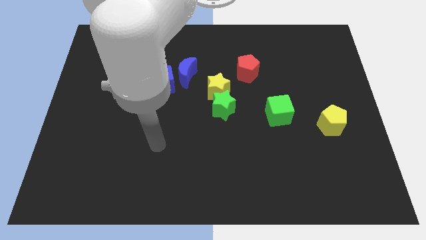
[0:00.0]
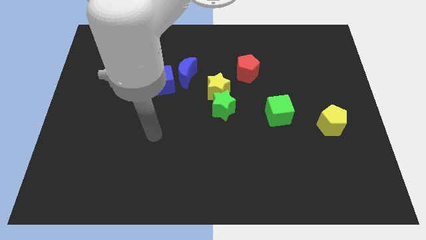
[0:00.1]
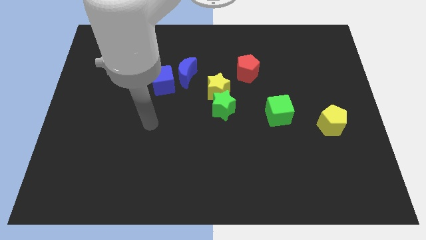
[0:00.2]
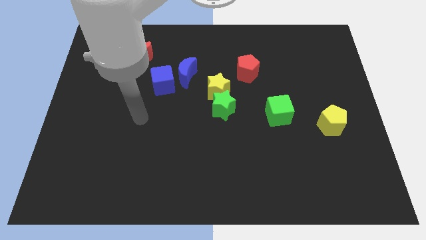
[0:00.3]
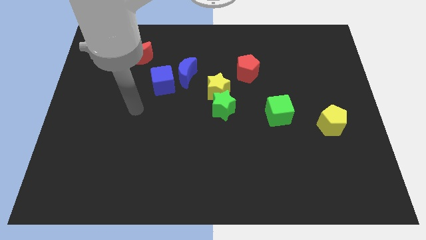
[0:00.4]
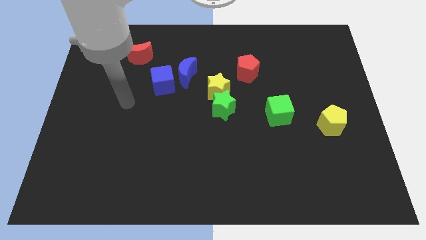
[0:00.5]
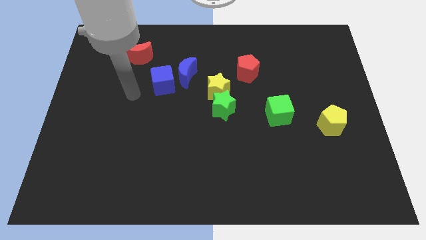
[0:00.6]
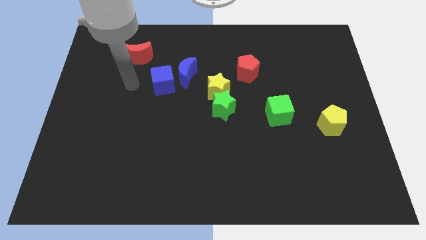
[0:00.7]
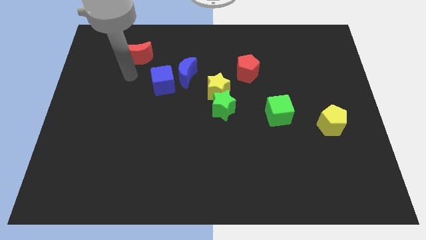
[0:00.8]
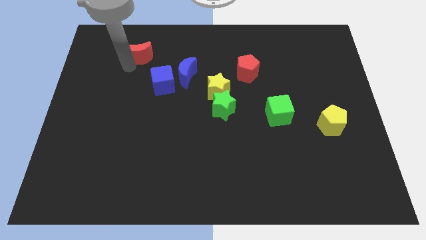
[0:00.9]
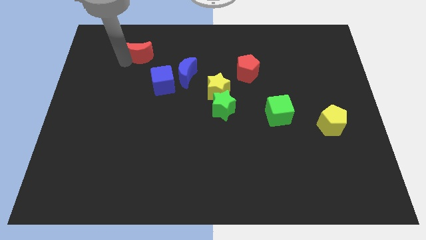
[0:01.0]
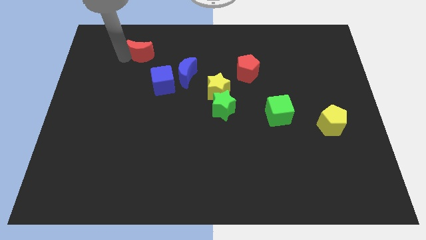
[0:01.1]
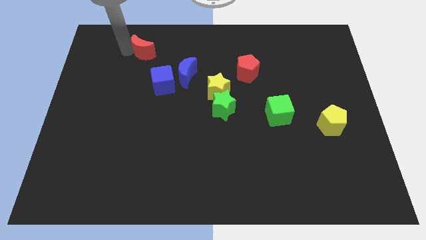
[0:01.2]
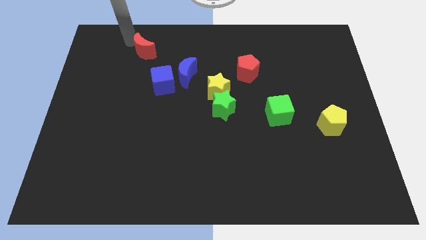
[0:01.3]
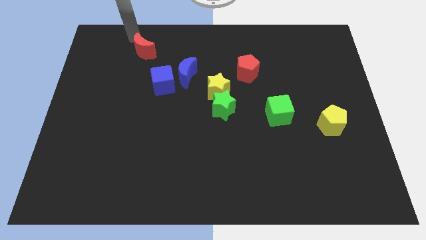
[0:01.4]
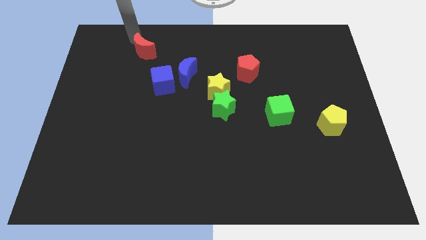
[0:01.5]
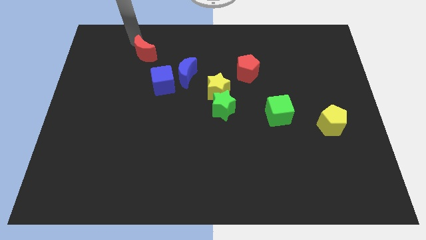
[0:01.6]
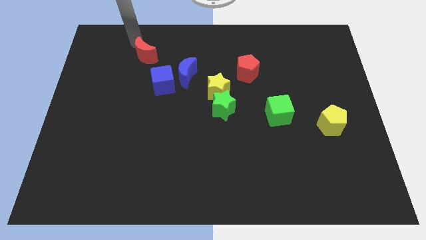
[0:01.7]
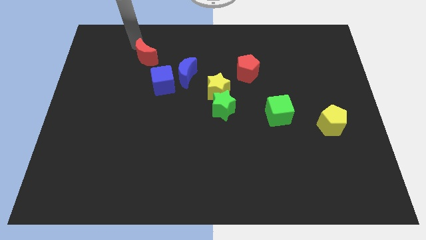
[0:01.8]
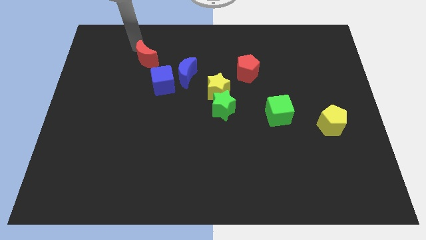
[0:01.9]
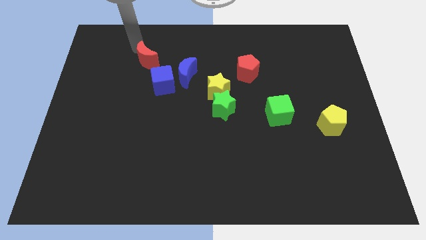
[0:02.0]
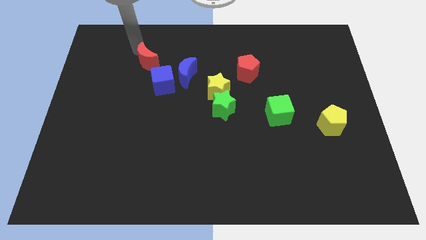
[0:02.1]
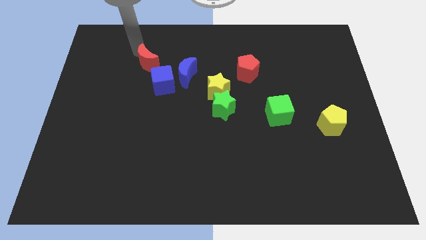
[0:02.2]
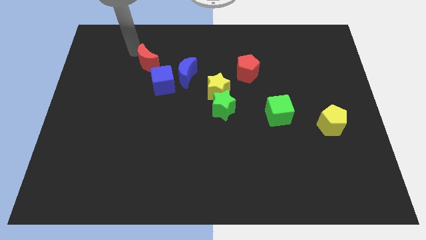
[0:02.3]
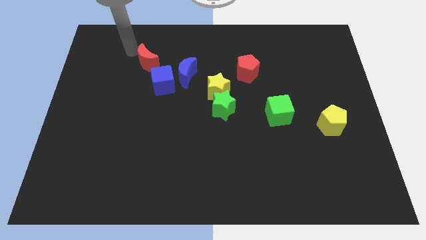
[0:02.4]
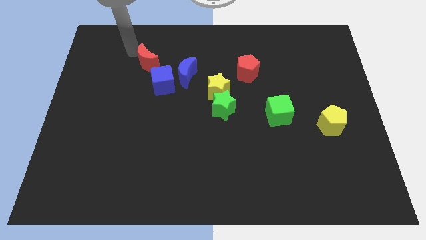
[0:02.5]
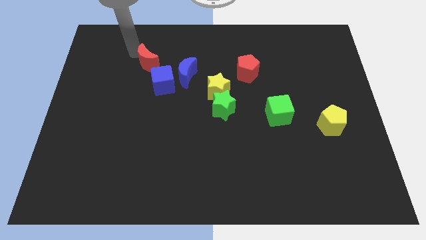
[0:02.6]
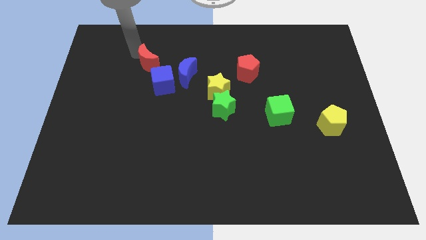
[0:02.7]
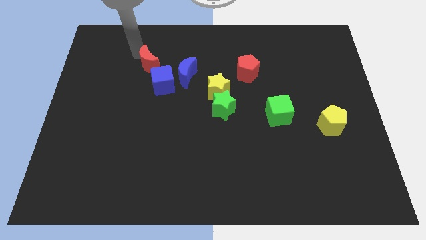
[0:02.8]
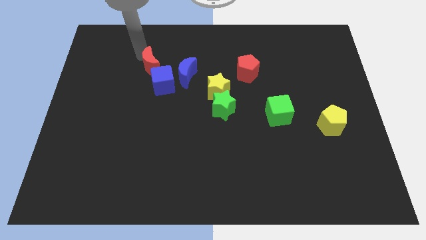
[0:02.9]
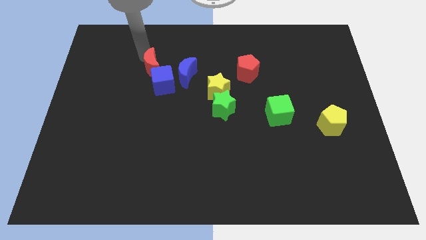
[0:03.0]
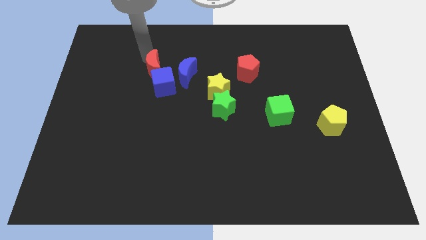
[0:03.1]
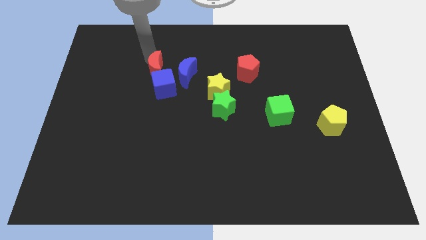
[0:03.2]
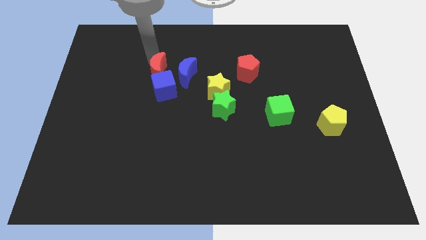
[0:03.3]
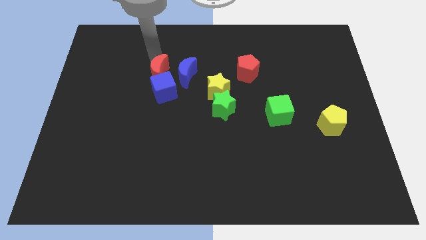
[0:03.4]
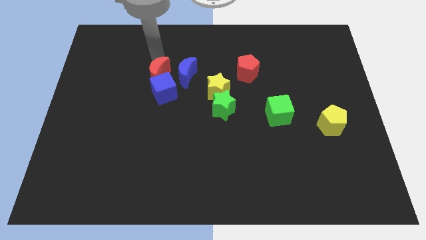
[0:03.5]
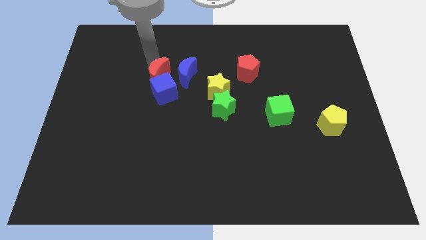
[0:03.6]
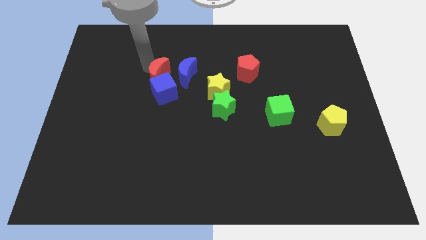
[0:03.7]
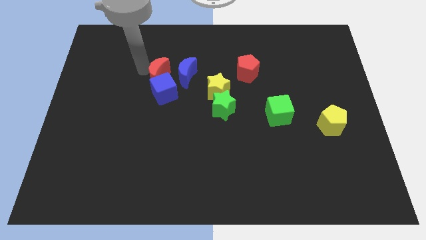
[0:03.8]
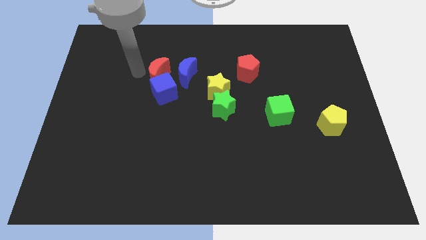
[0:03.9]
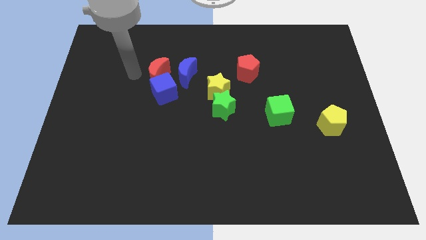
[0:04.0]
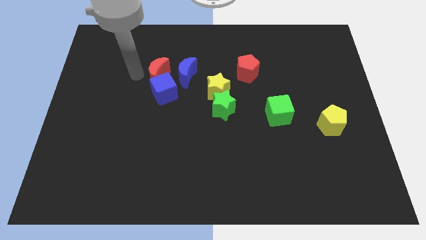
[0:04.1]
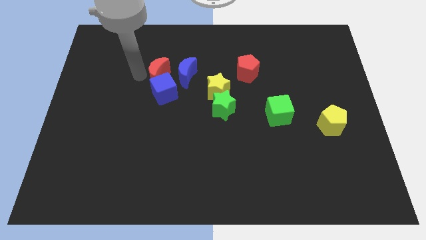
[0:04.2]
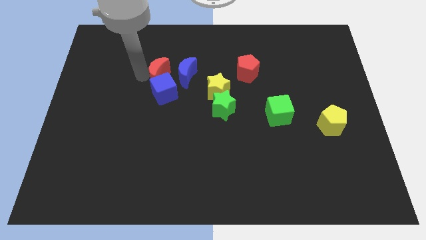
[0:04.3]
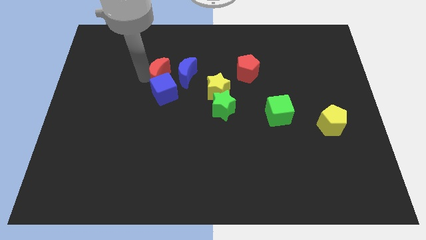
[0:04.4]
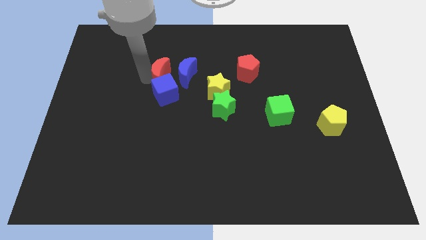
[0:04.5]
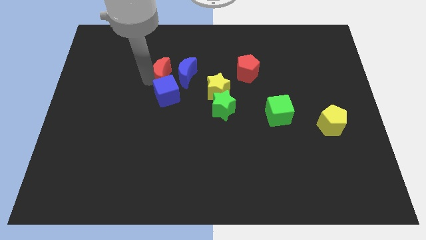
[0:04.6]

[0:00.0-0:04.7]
put the red moon towards the blue moon

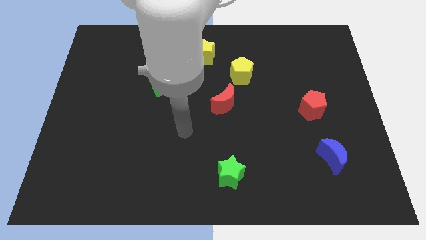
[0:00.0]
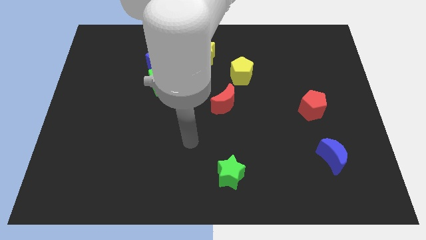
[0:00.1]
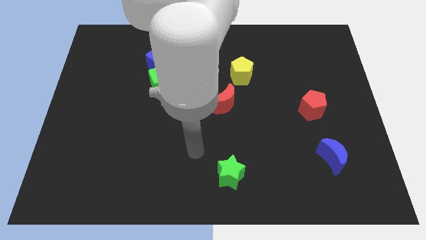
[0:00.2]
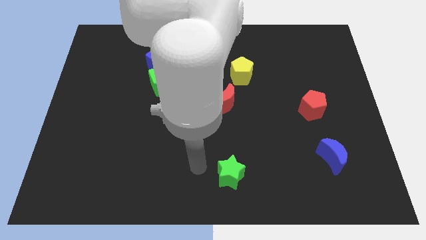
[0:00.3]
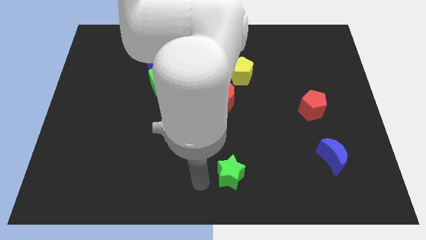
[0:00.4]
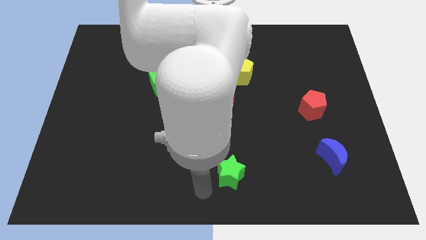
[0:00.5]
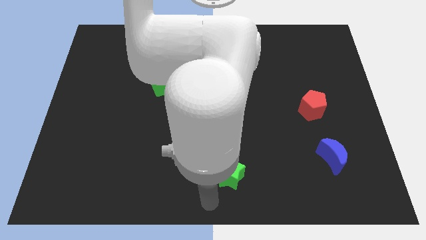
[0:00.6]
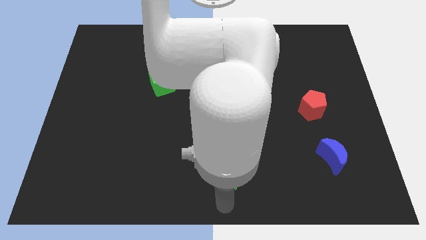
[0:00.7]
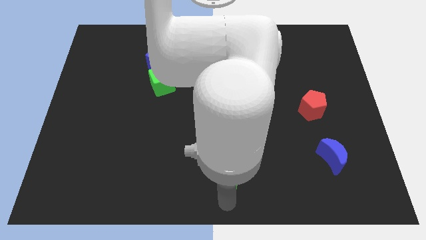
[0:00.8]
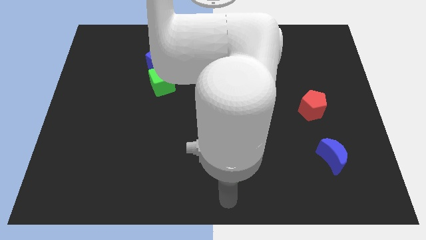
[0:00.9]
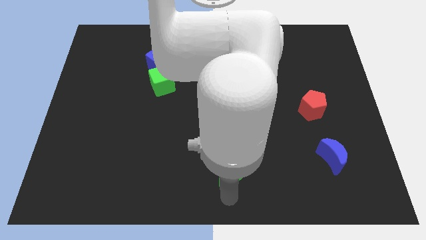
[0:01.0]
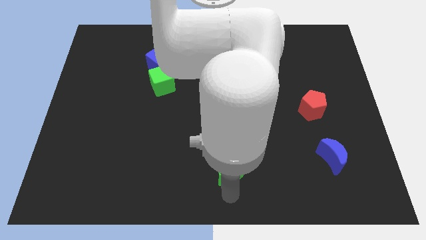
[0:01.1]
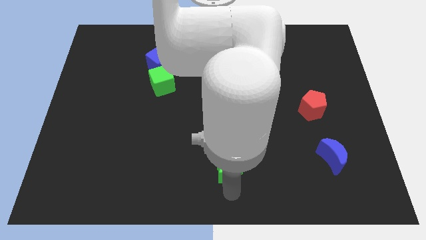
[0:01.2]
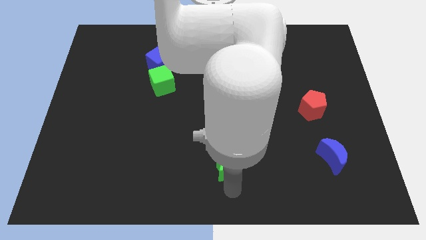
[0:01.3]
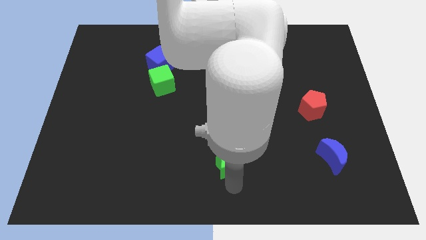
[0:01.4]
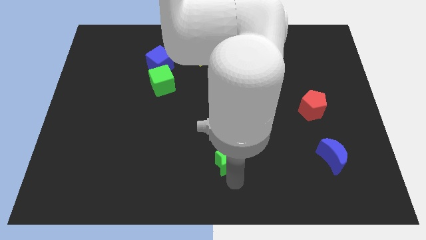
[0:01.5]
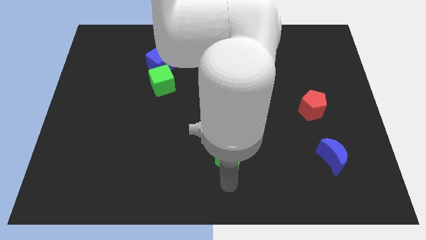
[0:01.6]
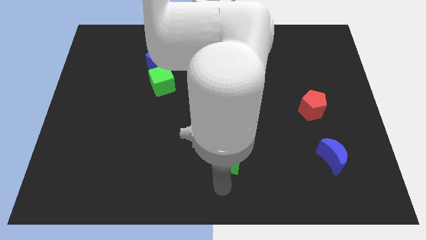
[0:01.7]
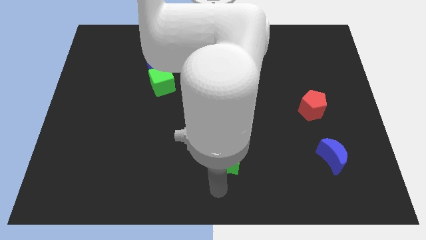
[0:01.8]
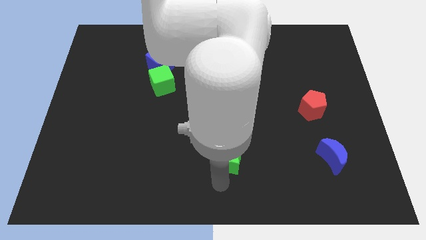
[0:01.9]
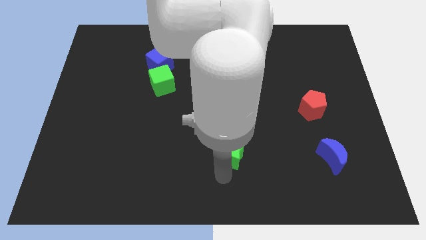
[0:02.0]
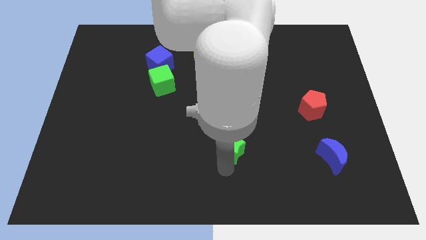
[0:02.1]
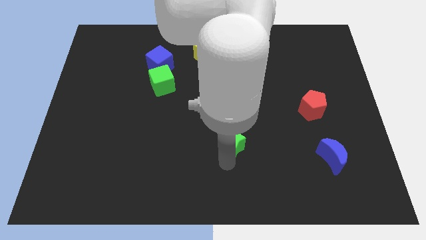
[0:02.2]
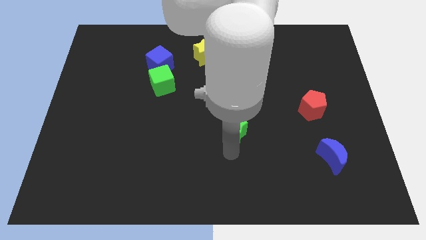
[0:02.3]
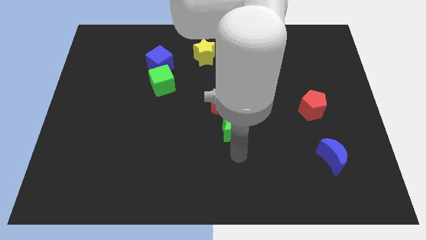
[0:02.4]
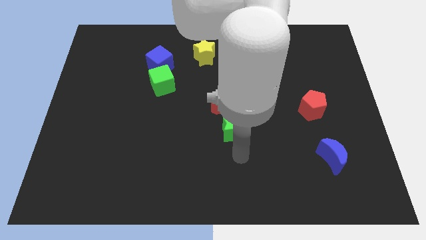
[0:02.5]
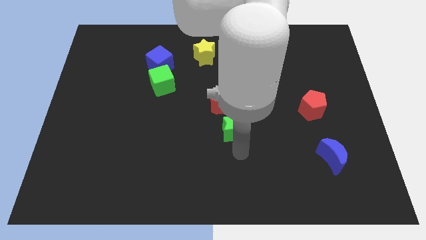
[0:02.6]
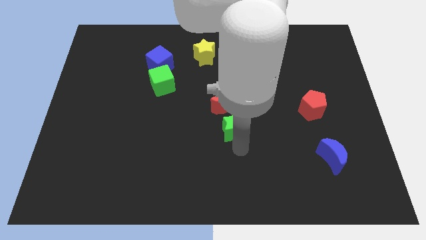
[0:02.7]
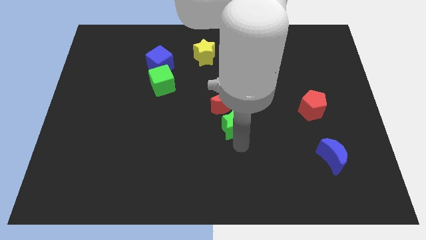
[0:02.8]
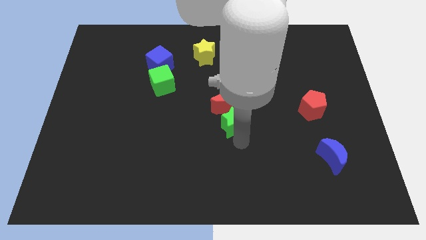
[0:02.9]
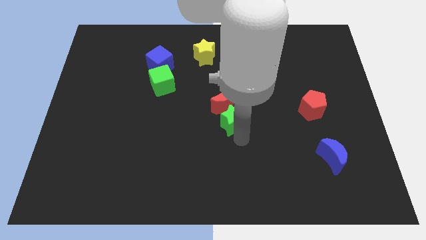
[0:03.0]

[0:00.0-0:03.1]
move the green star next to the red moon

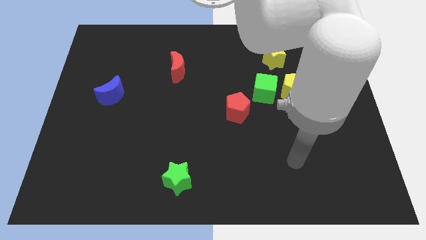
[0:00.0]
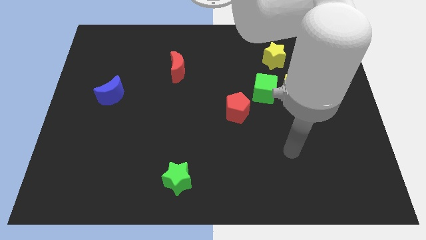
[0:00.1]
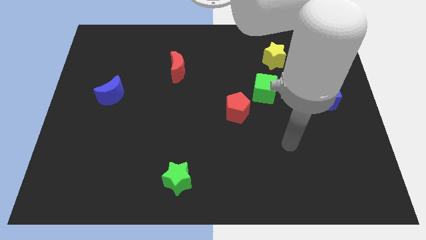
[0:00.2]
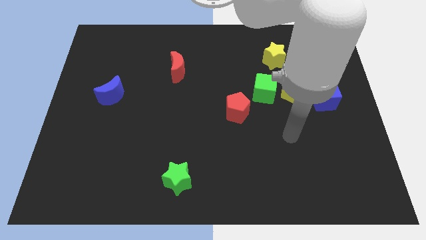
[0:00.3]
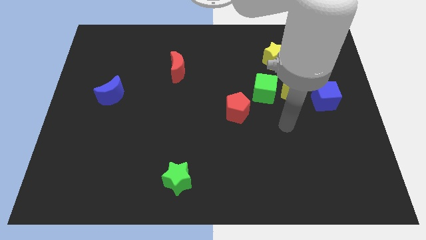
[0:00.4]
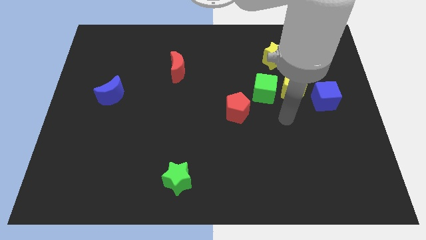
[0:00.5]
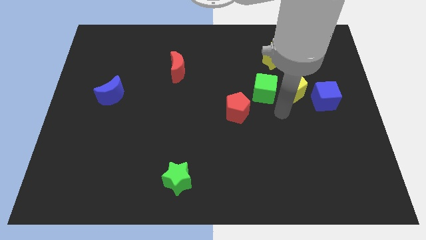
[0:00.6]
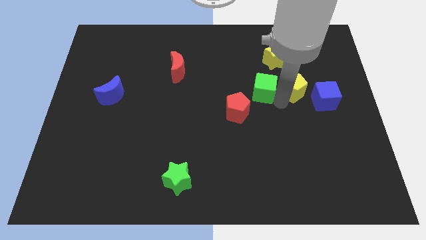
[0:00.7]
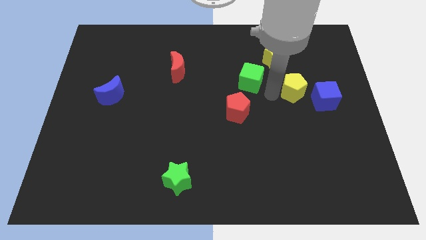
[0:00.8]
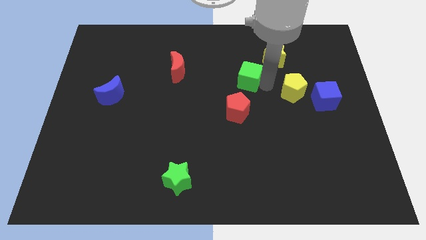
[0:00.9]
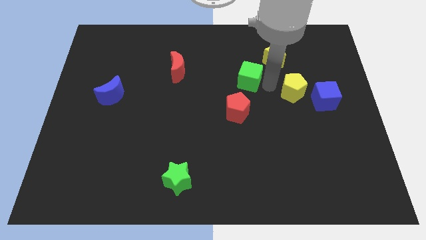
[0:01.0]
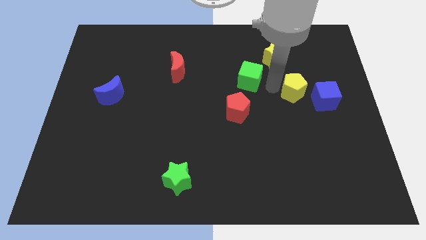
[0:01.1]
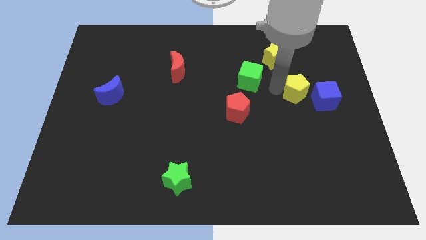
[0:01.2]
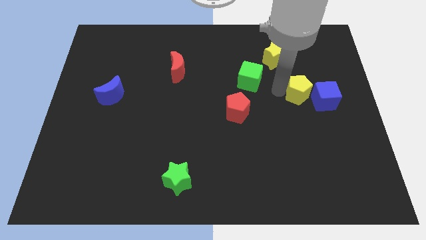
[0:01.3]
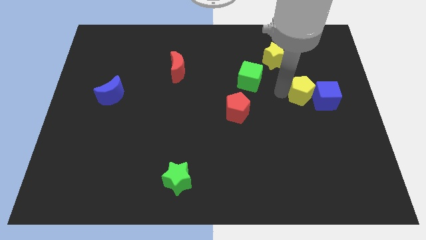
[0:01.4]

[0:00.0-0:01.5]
slide the yellow pentagon close to the blue cube
